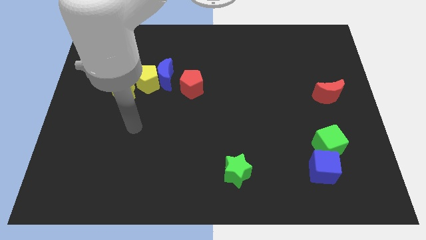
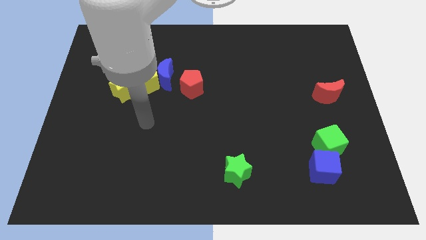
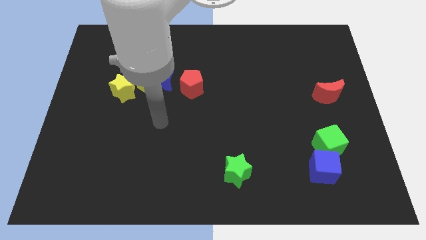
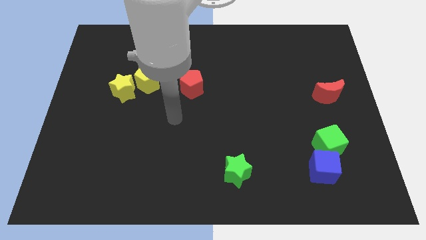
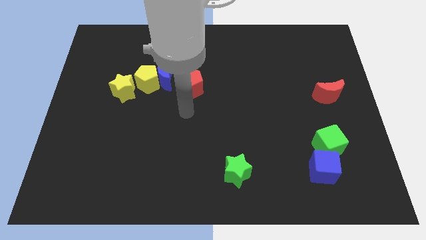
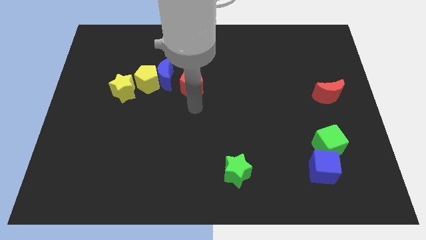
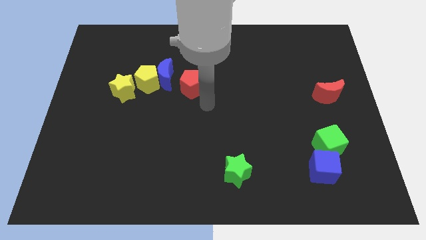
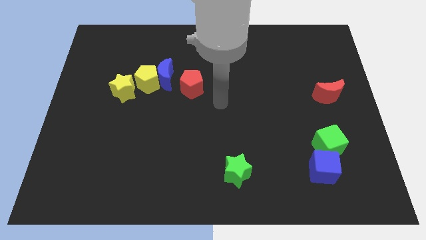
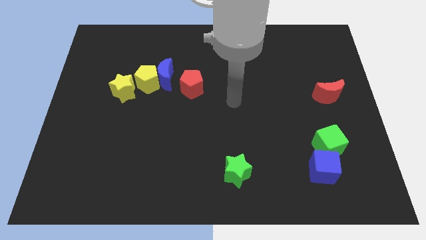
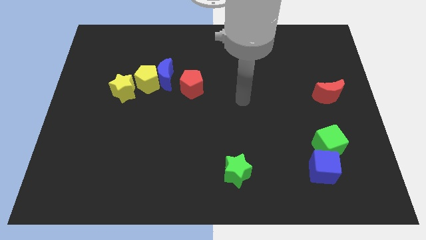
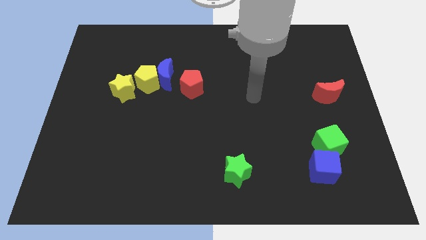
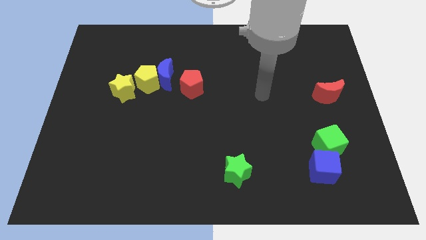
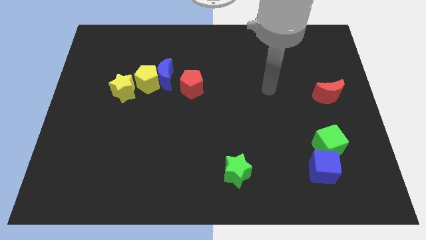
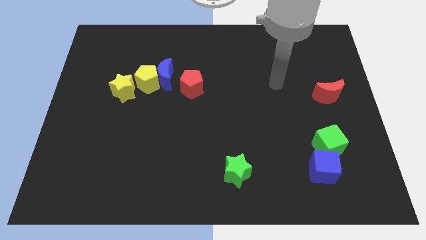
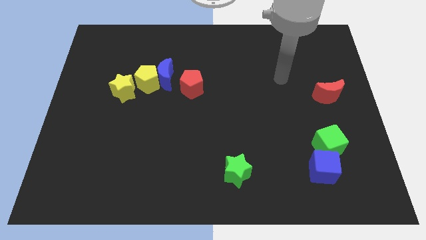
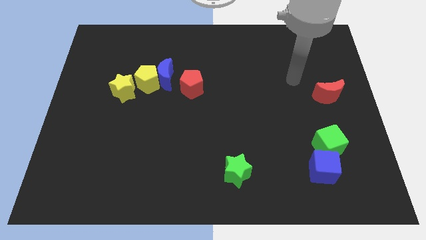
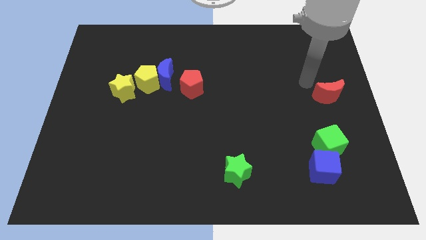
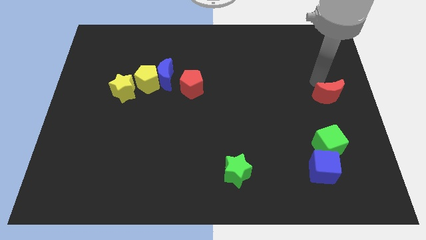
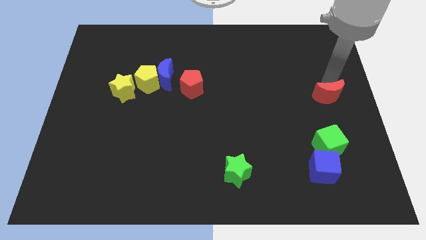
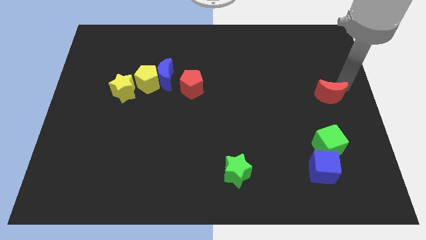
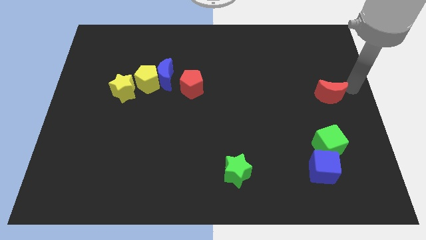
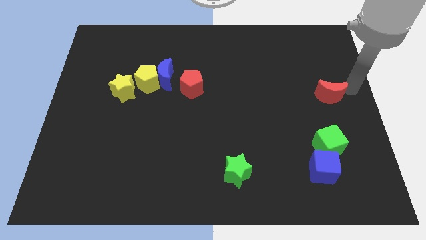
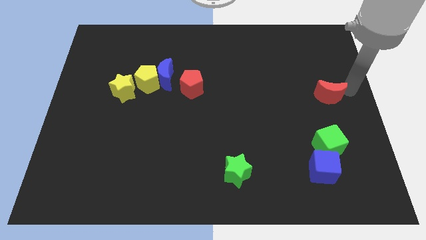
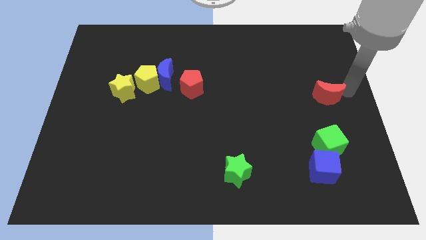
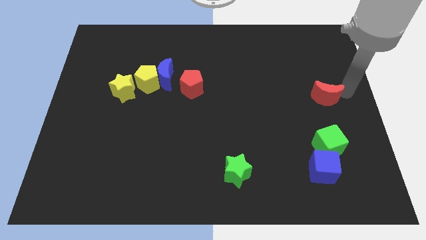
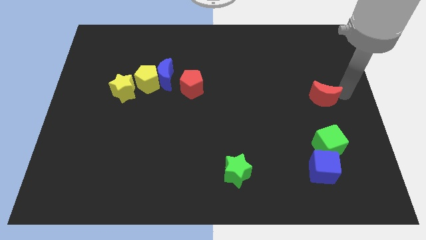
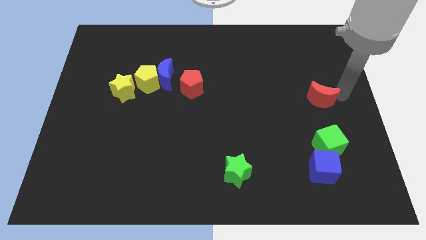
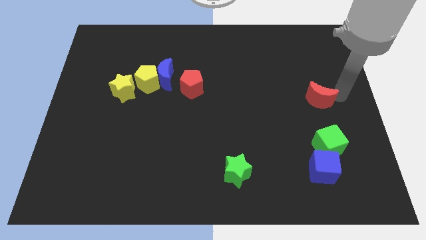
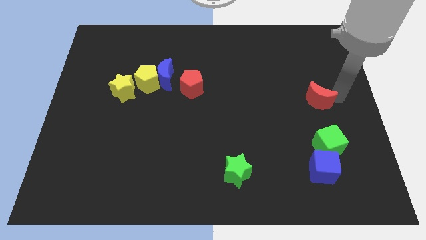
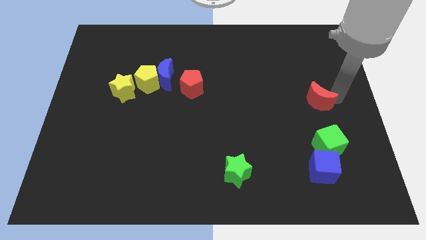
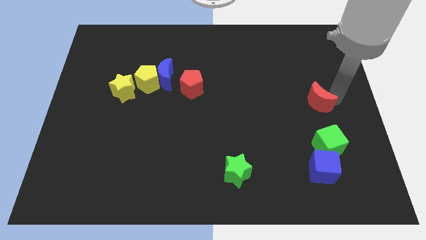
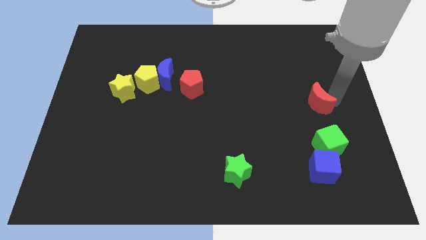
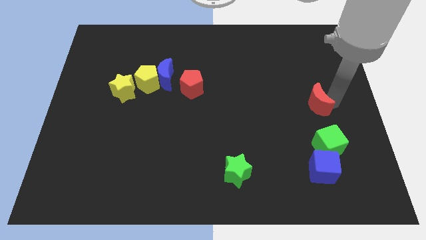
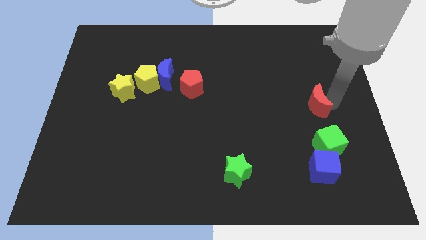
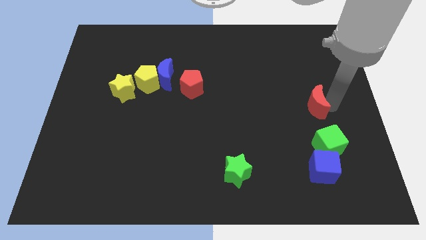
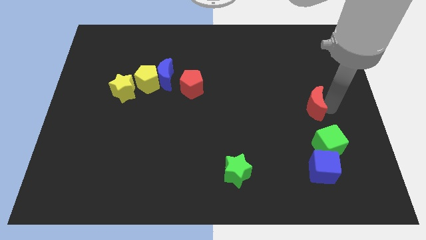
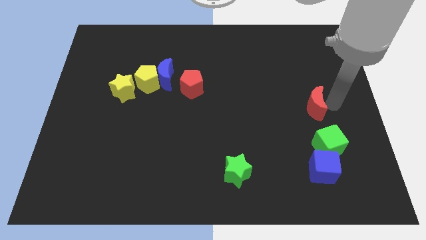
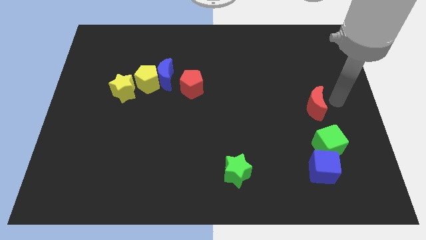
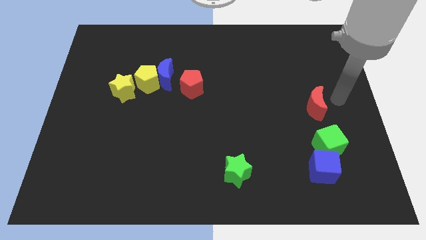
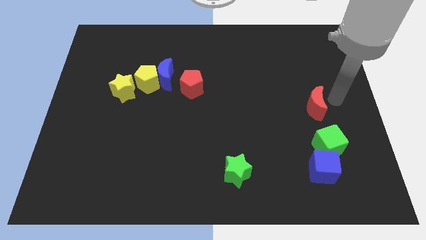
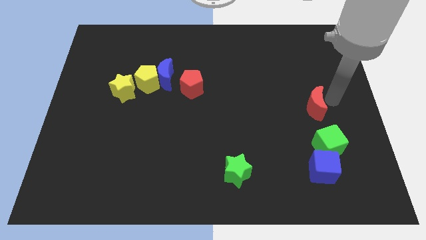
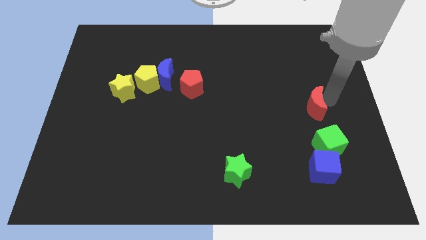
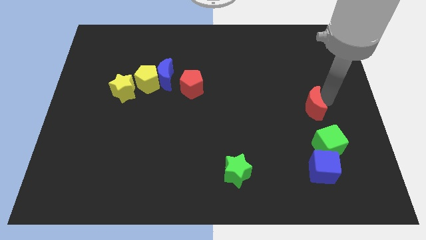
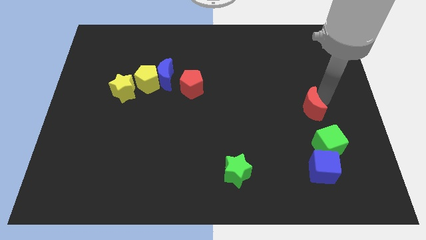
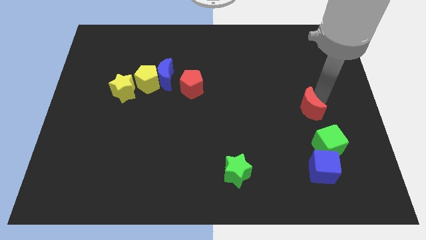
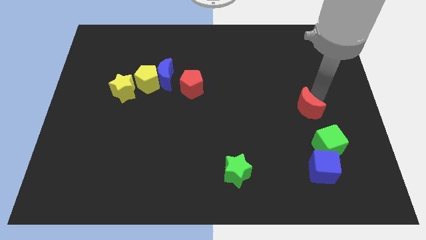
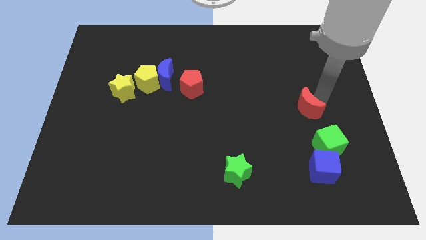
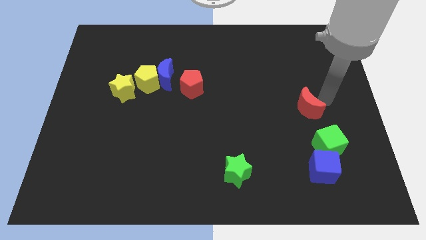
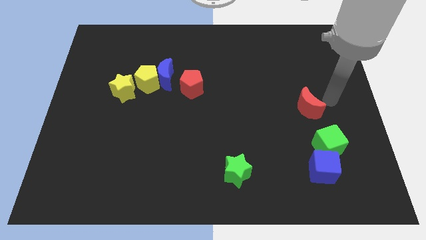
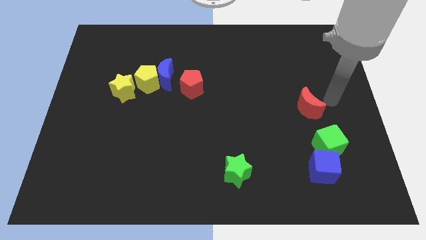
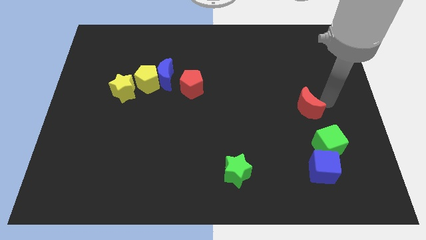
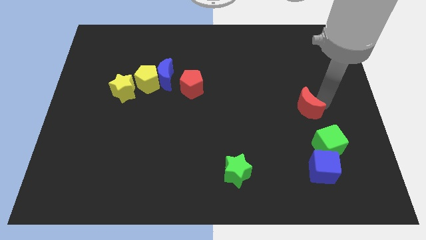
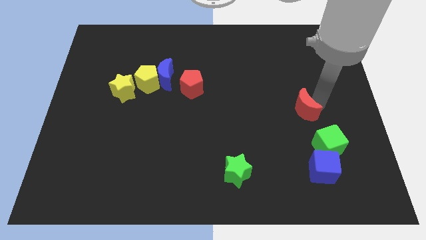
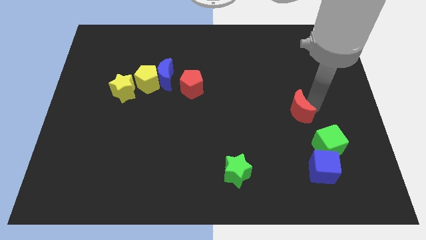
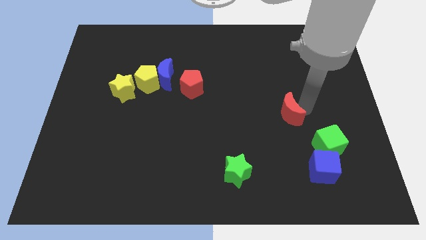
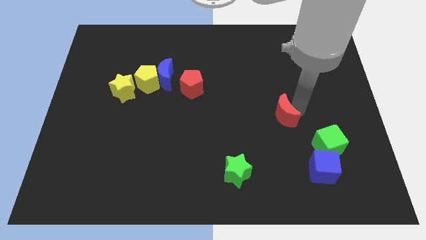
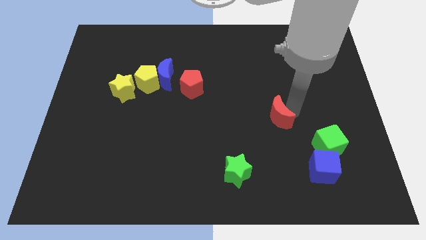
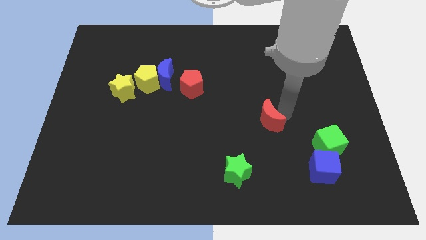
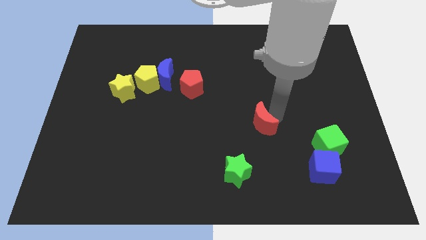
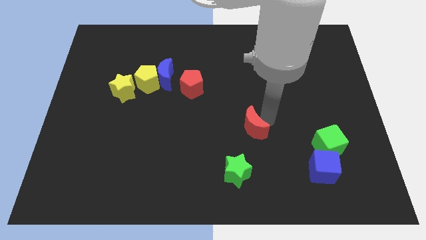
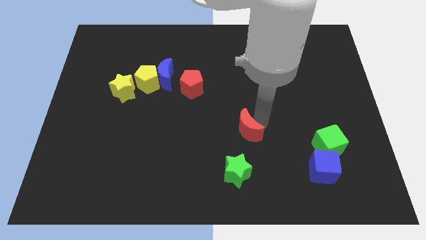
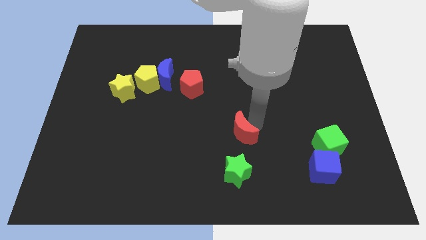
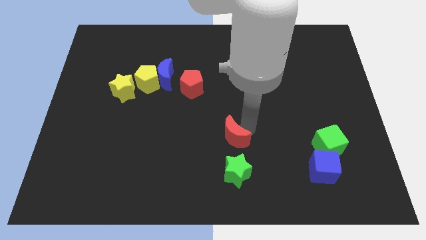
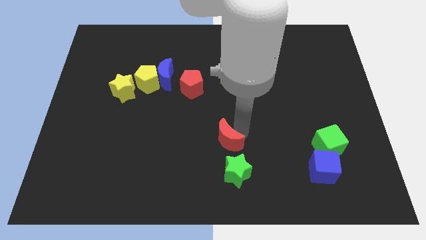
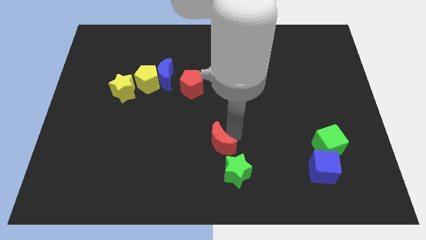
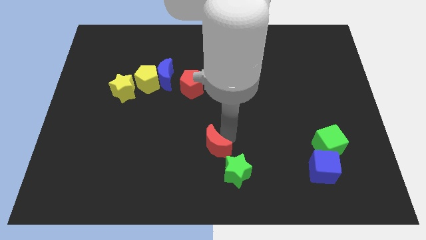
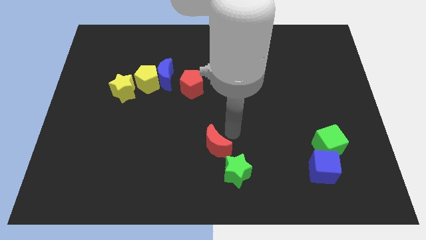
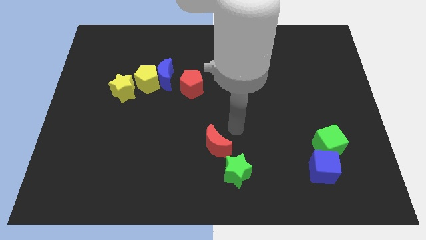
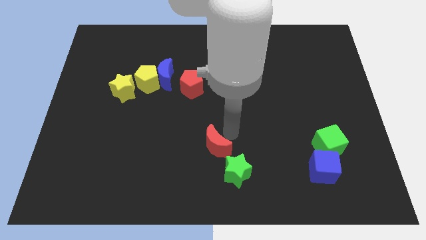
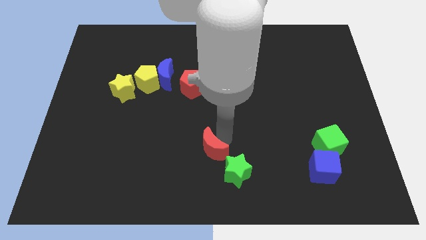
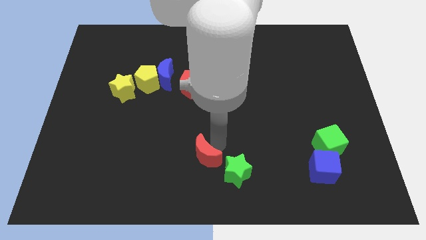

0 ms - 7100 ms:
slide the red moon to the left side of the green star
